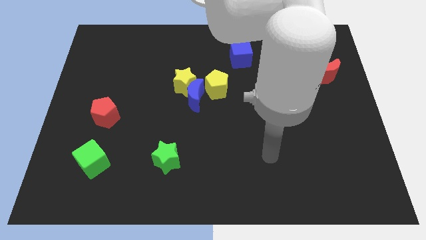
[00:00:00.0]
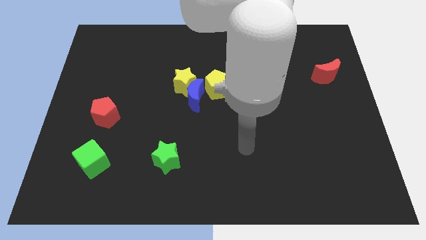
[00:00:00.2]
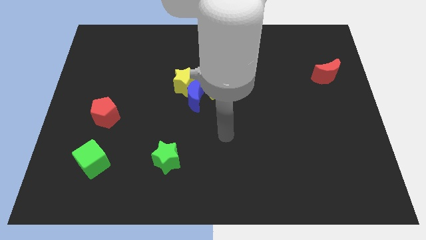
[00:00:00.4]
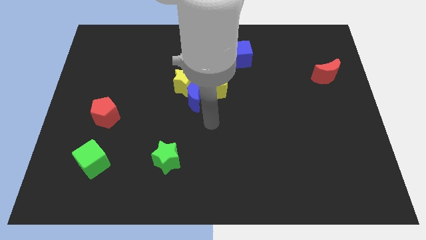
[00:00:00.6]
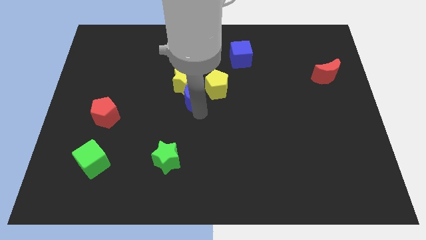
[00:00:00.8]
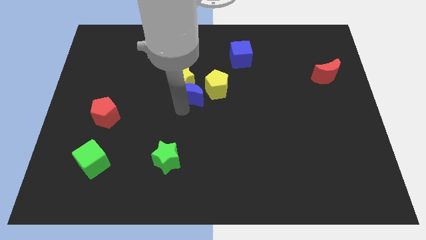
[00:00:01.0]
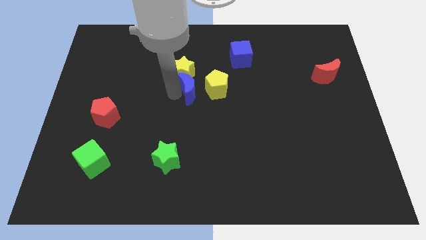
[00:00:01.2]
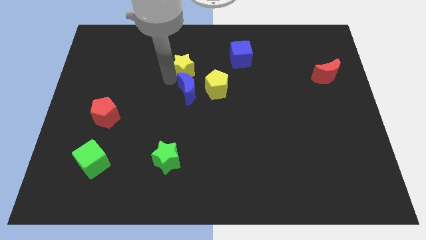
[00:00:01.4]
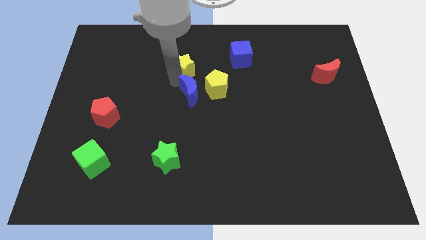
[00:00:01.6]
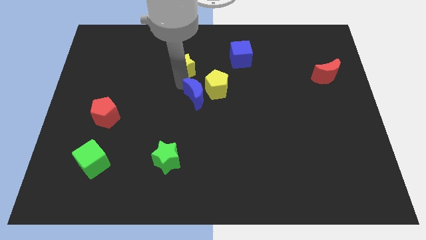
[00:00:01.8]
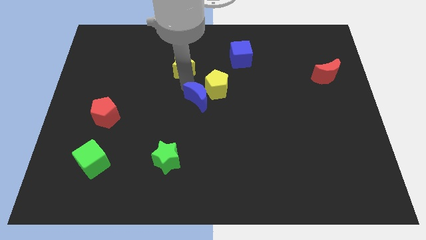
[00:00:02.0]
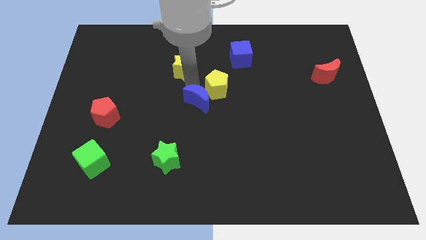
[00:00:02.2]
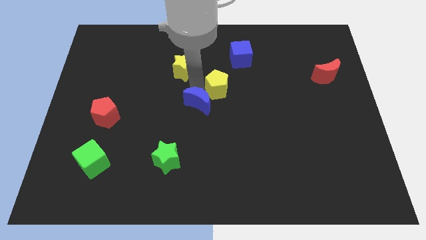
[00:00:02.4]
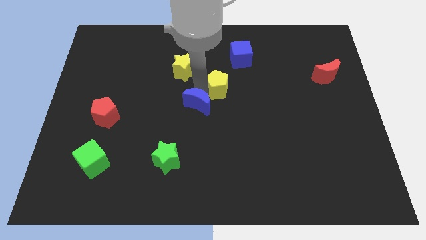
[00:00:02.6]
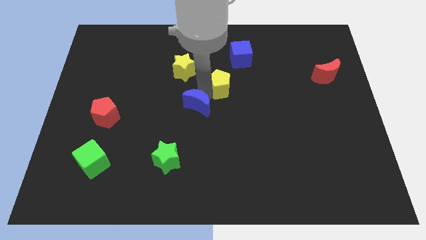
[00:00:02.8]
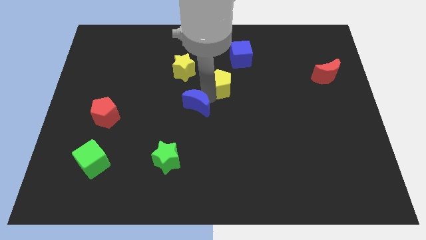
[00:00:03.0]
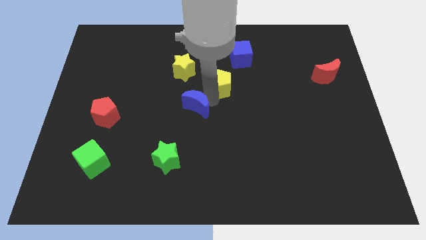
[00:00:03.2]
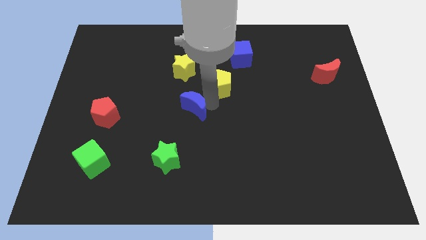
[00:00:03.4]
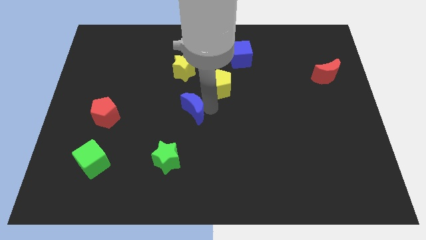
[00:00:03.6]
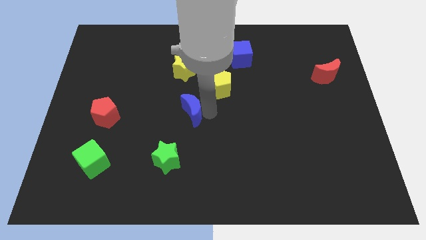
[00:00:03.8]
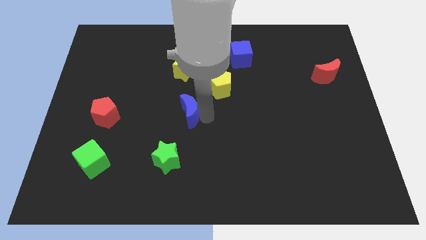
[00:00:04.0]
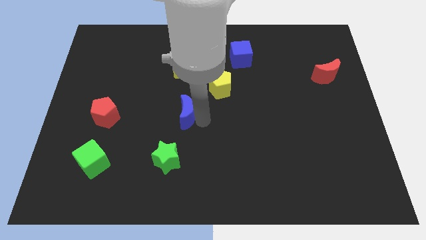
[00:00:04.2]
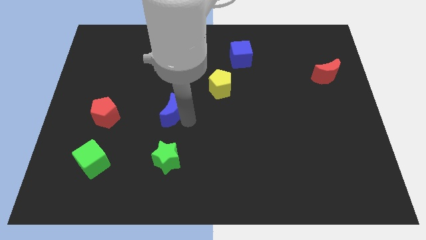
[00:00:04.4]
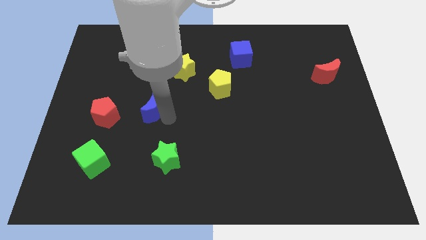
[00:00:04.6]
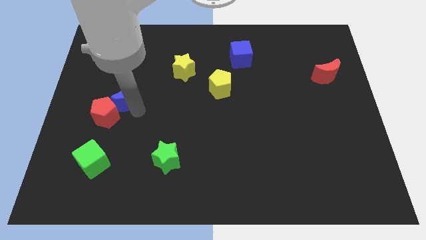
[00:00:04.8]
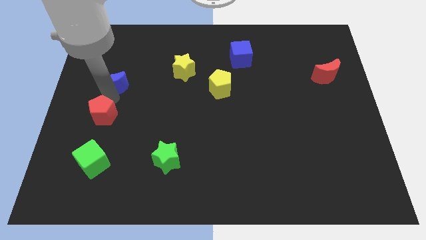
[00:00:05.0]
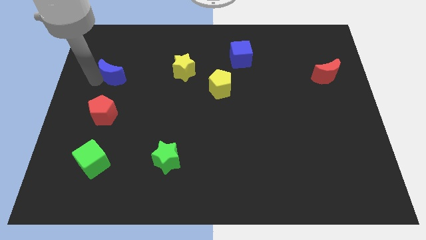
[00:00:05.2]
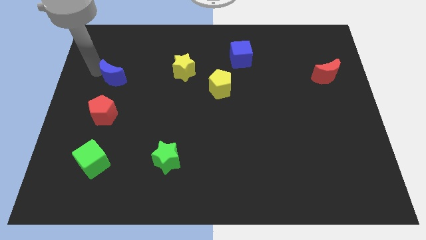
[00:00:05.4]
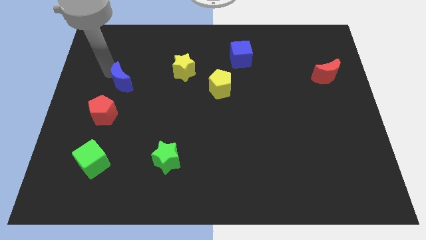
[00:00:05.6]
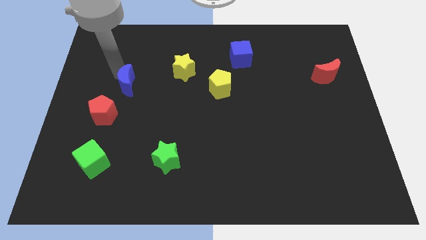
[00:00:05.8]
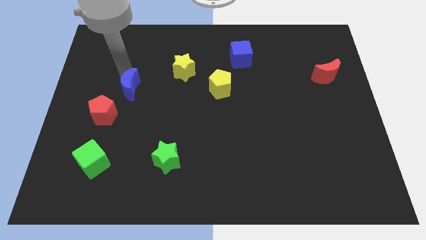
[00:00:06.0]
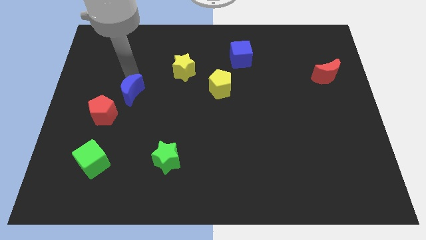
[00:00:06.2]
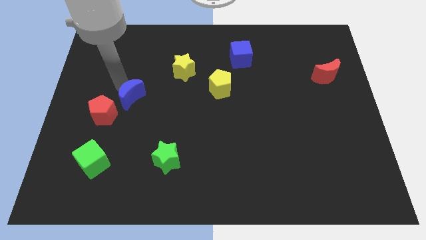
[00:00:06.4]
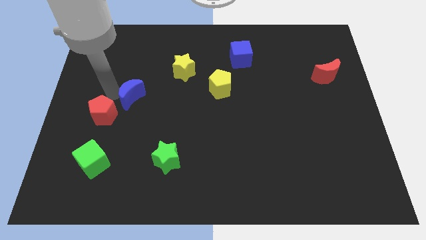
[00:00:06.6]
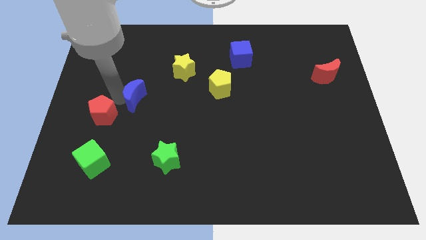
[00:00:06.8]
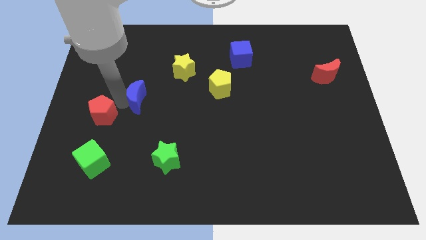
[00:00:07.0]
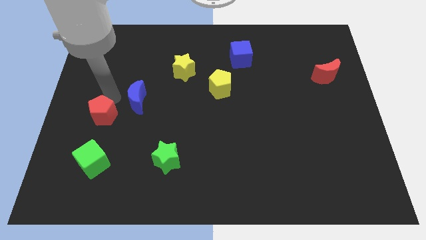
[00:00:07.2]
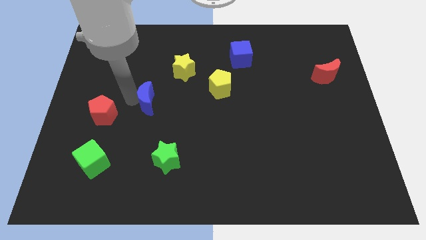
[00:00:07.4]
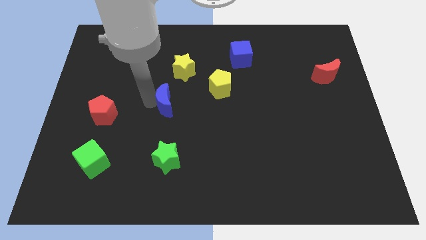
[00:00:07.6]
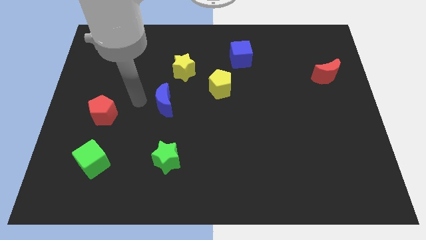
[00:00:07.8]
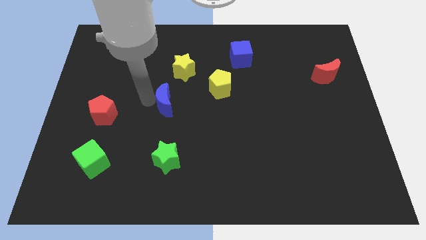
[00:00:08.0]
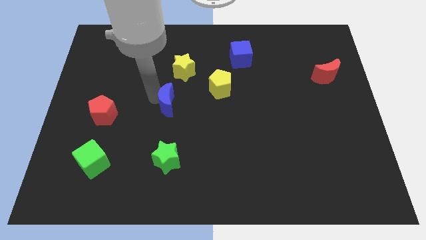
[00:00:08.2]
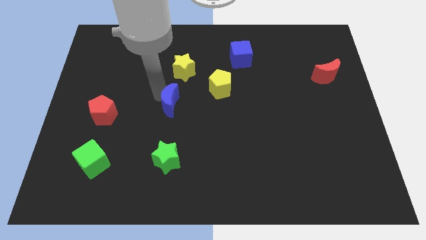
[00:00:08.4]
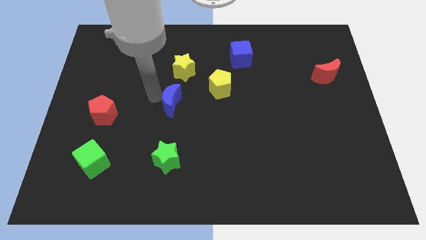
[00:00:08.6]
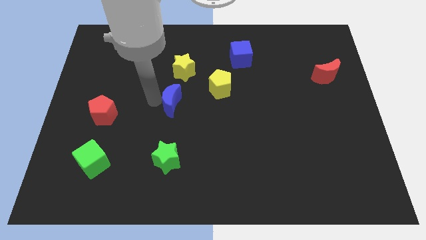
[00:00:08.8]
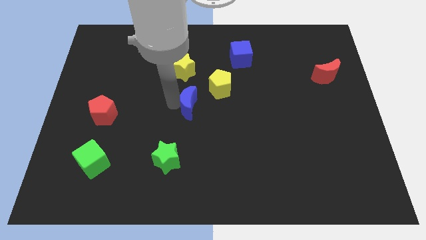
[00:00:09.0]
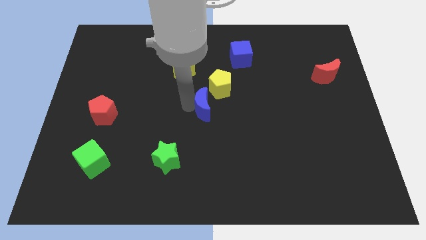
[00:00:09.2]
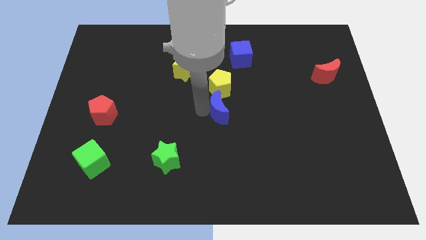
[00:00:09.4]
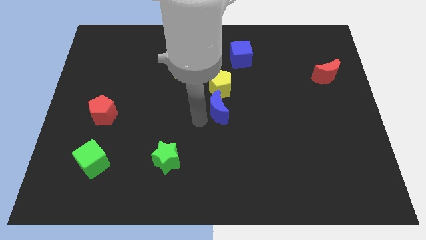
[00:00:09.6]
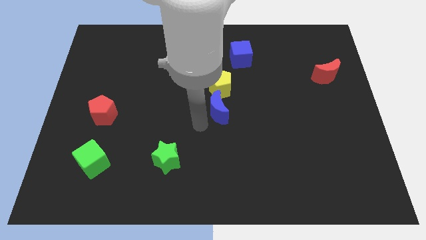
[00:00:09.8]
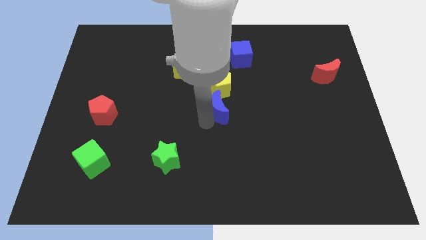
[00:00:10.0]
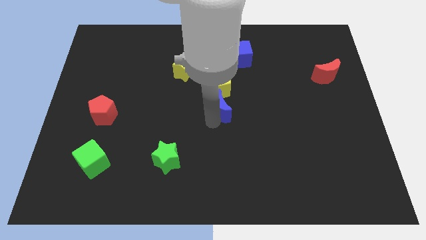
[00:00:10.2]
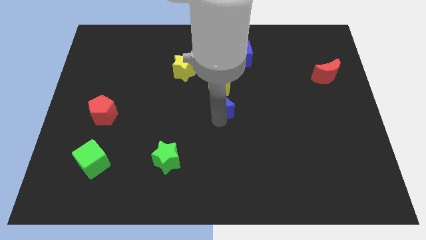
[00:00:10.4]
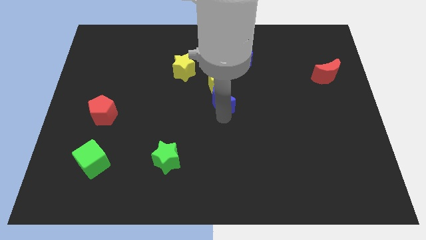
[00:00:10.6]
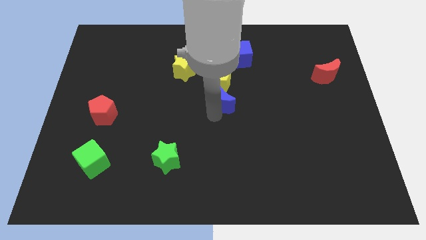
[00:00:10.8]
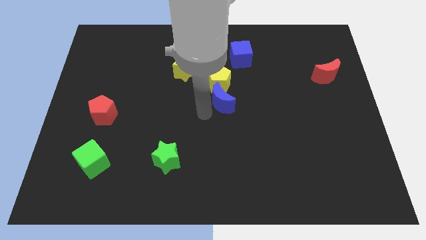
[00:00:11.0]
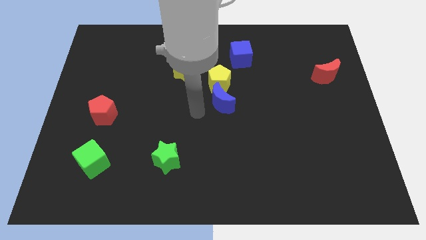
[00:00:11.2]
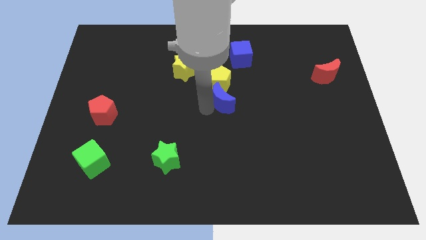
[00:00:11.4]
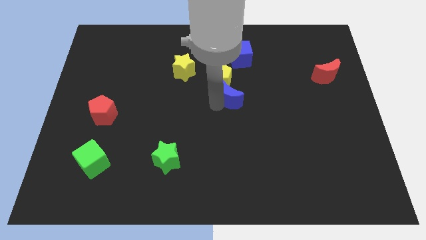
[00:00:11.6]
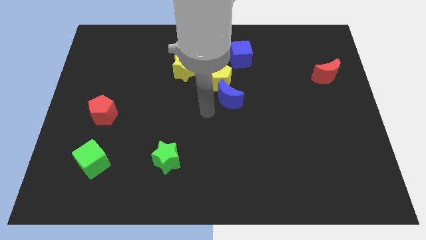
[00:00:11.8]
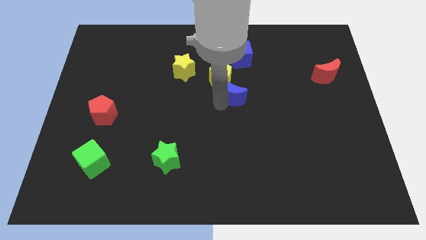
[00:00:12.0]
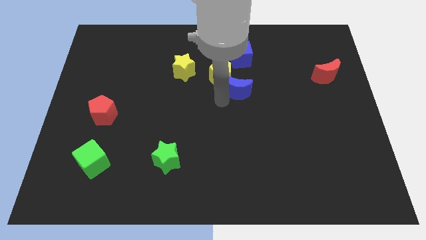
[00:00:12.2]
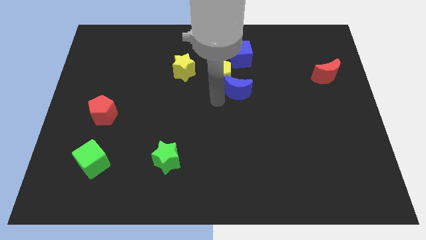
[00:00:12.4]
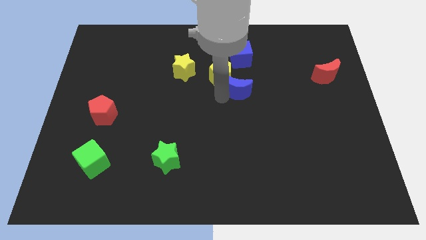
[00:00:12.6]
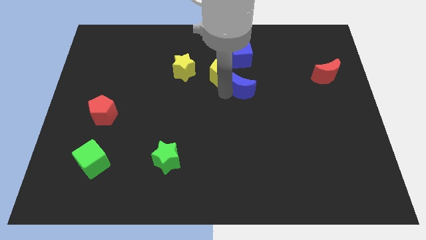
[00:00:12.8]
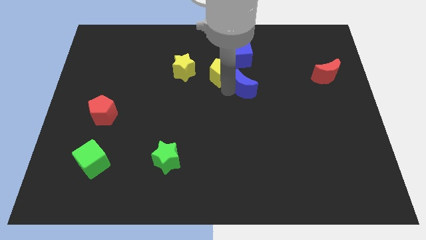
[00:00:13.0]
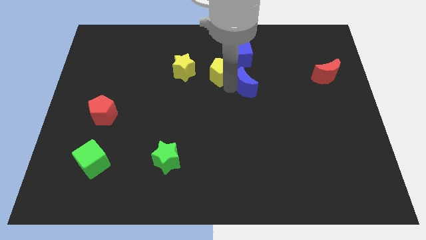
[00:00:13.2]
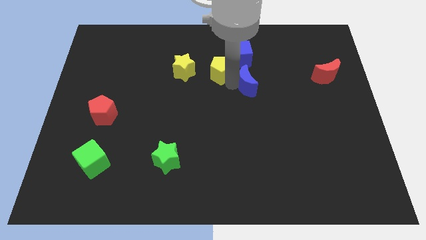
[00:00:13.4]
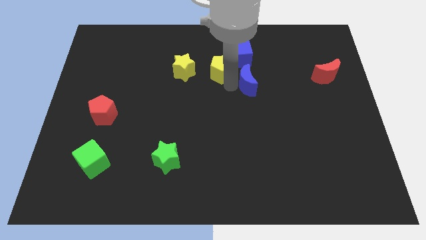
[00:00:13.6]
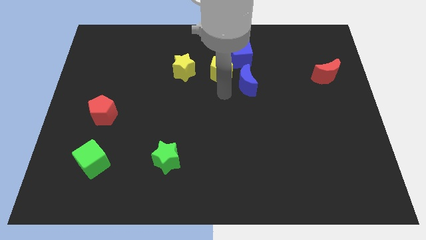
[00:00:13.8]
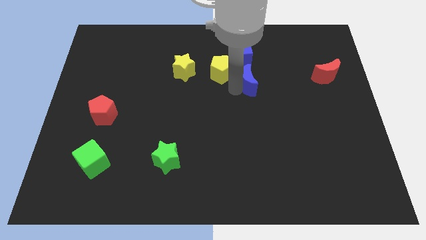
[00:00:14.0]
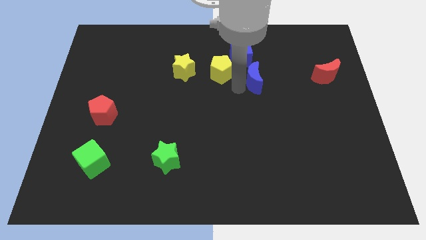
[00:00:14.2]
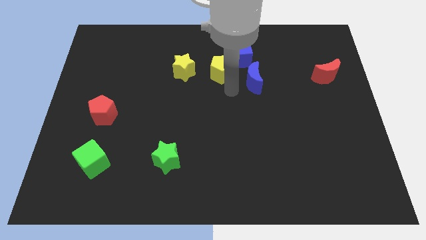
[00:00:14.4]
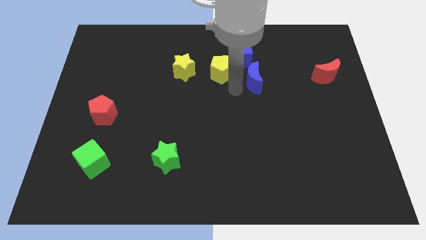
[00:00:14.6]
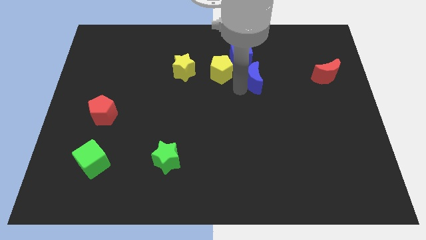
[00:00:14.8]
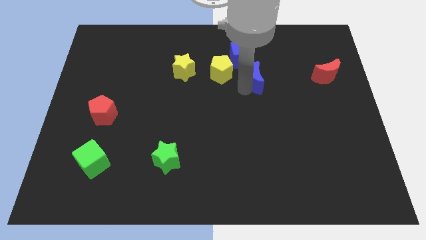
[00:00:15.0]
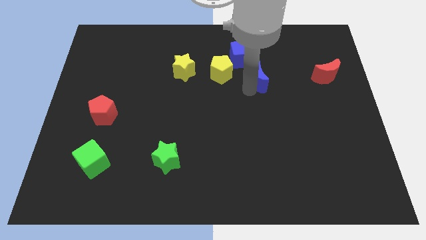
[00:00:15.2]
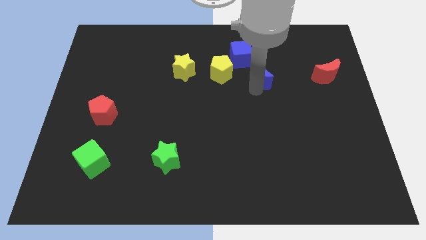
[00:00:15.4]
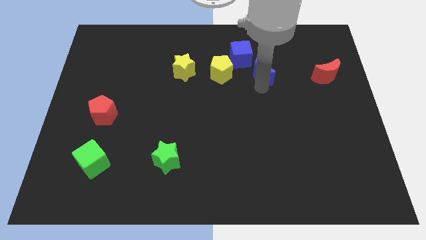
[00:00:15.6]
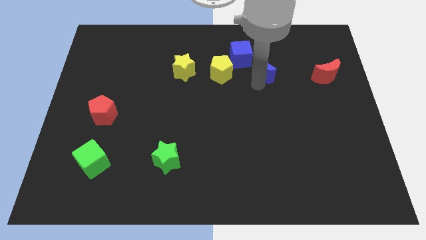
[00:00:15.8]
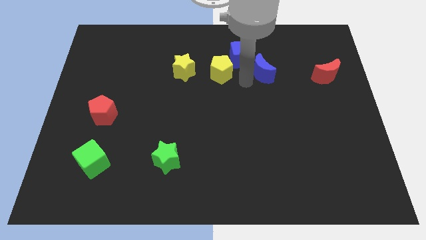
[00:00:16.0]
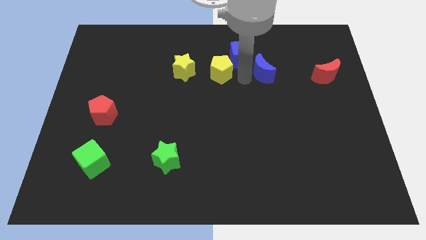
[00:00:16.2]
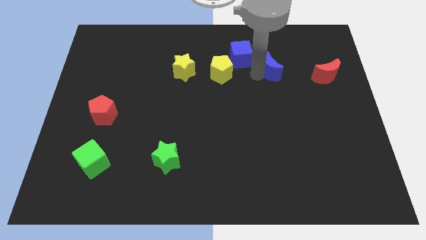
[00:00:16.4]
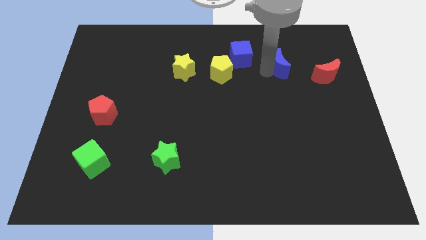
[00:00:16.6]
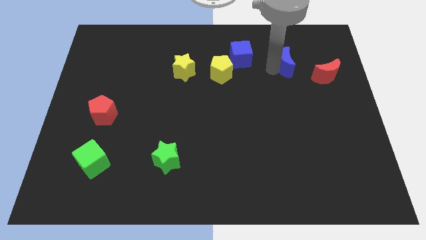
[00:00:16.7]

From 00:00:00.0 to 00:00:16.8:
move the blue moon diagonally up and to the left of the red moon
